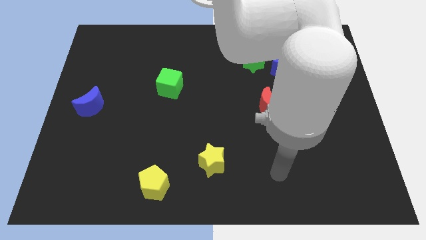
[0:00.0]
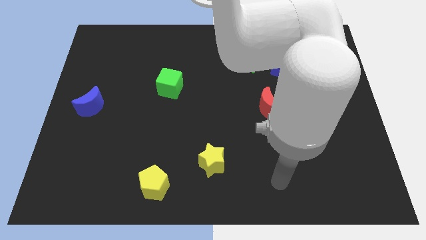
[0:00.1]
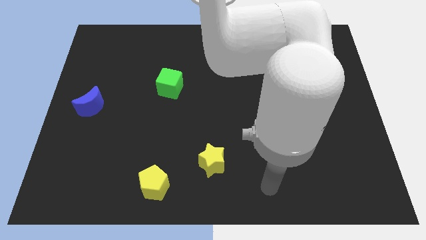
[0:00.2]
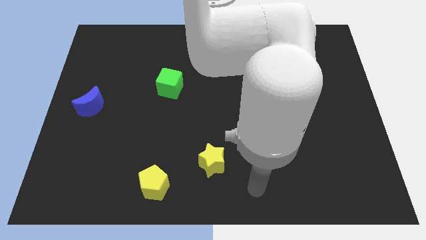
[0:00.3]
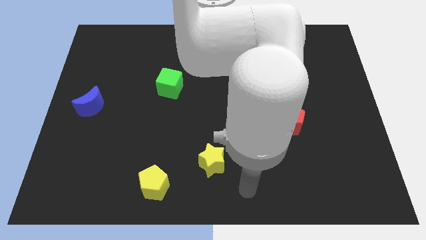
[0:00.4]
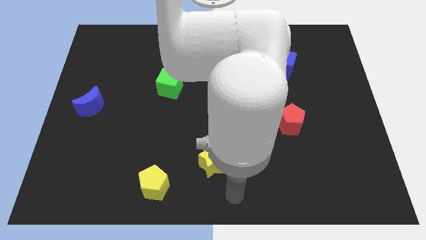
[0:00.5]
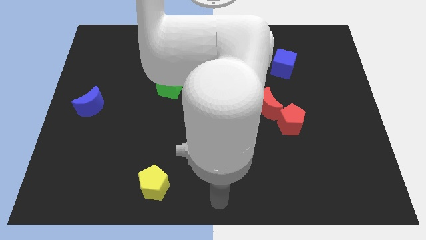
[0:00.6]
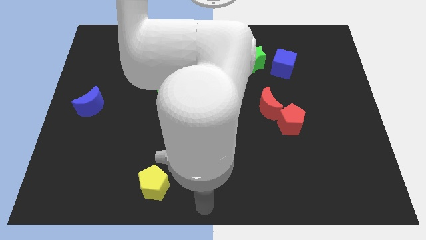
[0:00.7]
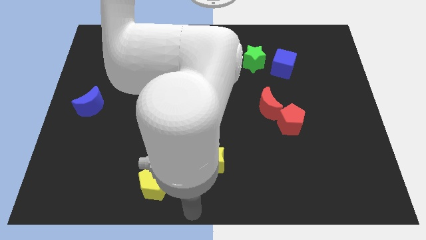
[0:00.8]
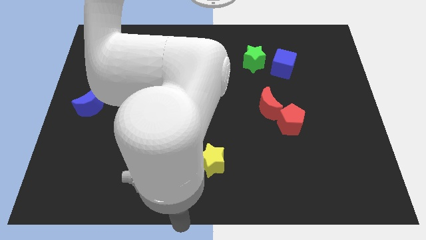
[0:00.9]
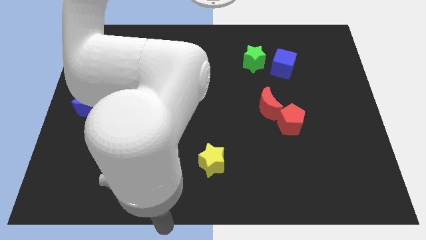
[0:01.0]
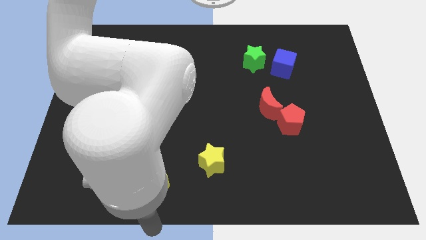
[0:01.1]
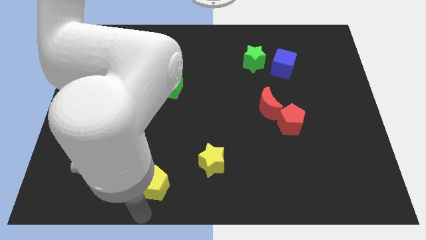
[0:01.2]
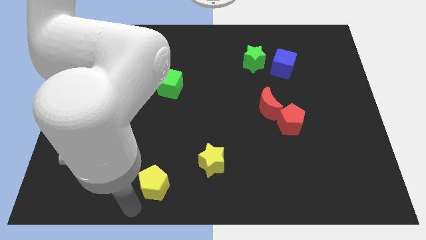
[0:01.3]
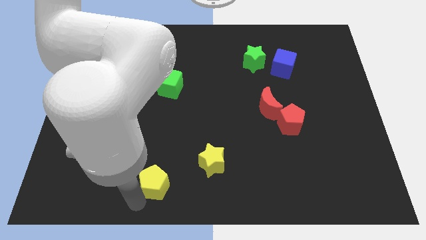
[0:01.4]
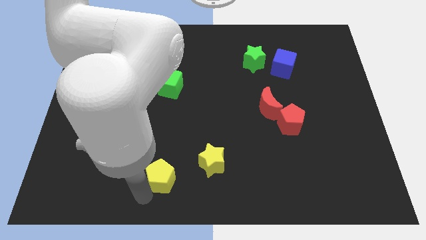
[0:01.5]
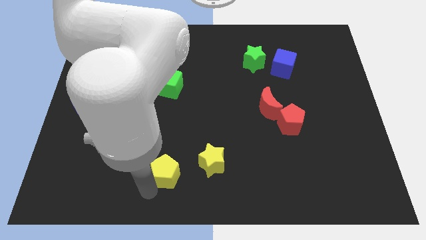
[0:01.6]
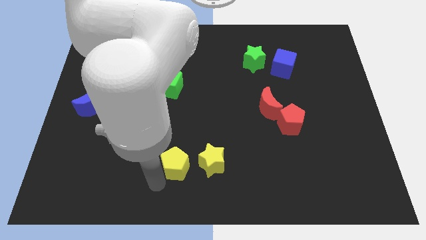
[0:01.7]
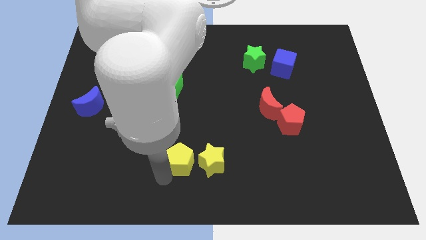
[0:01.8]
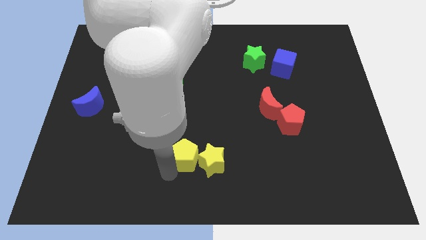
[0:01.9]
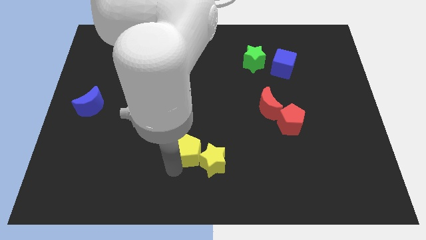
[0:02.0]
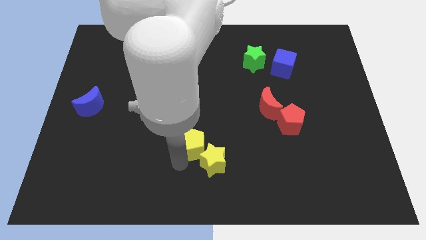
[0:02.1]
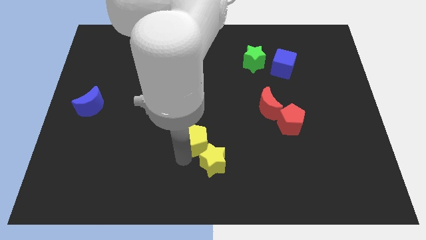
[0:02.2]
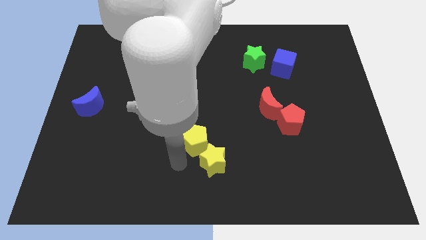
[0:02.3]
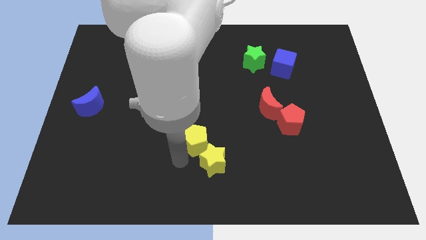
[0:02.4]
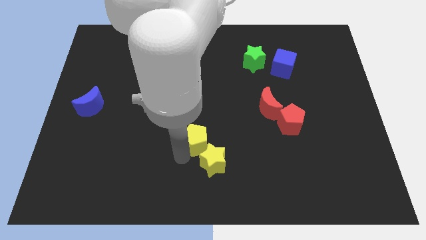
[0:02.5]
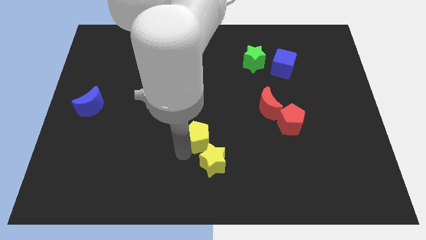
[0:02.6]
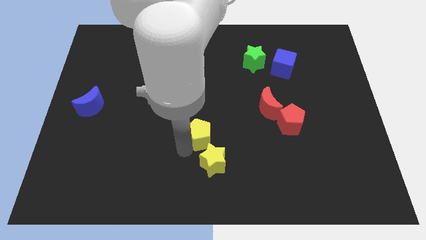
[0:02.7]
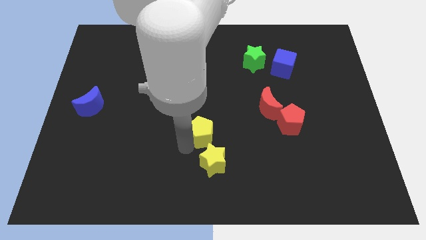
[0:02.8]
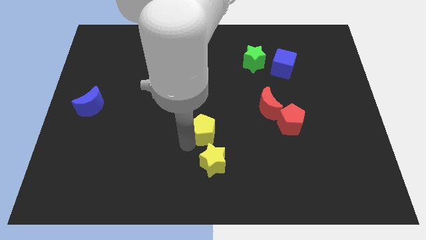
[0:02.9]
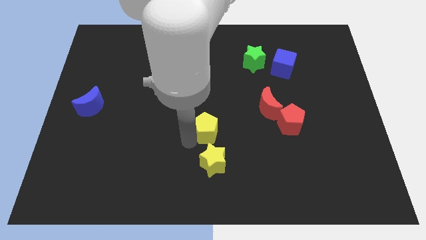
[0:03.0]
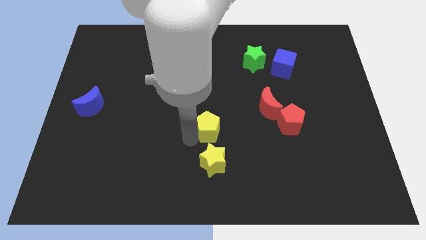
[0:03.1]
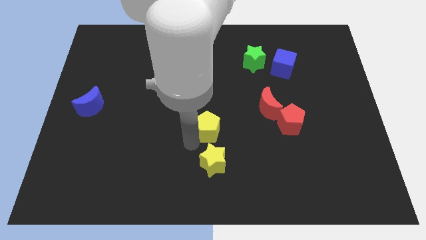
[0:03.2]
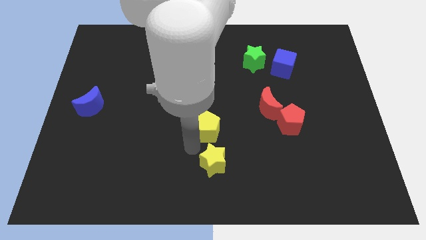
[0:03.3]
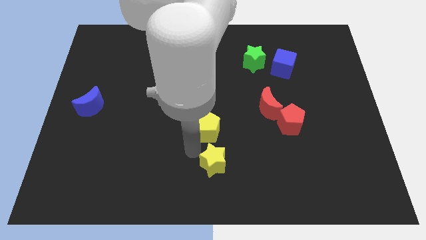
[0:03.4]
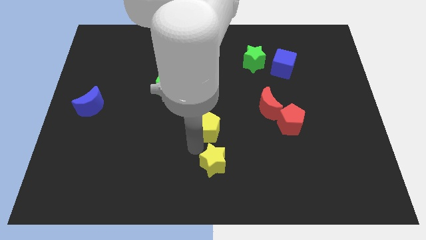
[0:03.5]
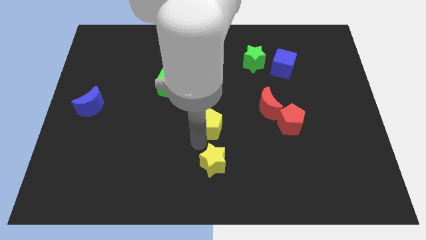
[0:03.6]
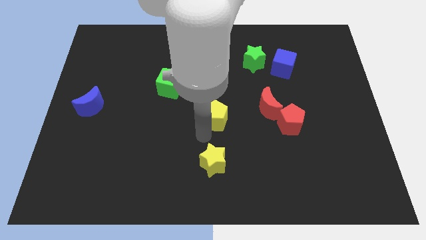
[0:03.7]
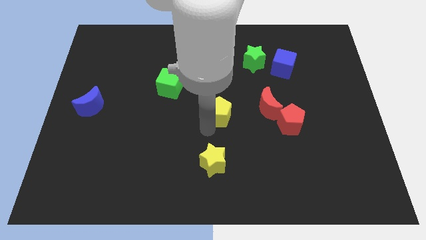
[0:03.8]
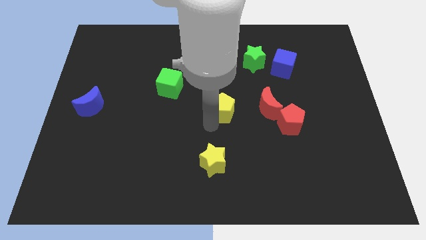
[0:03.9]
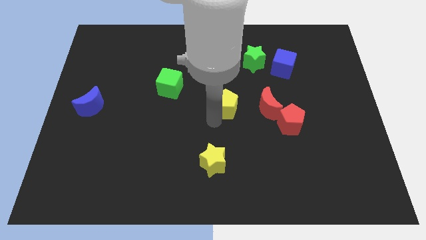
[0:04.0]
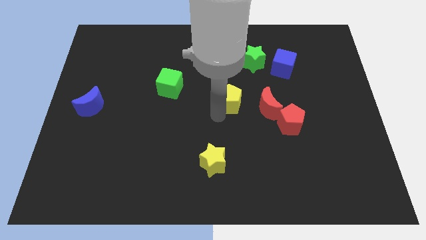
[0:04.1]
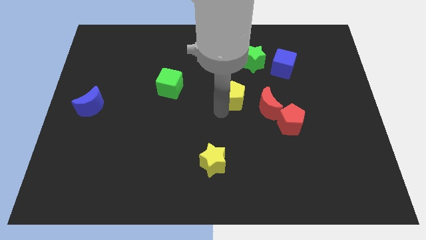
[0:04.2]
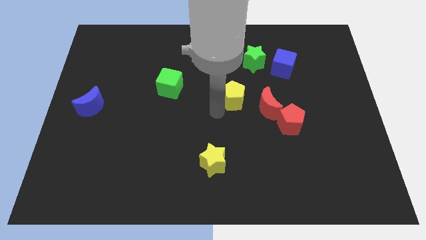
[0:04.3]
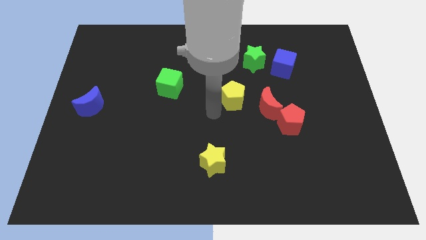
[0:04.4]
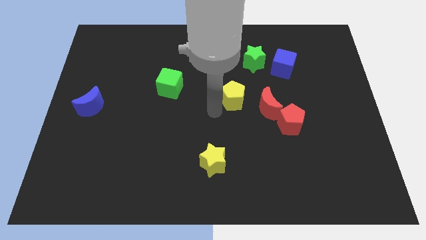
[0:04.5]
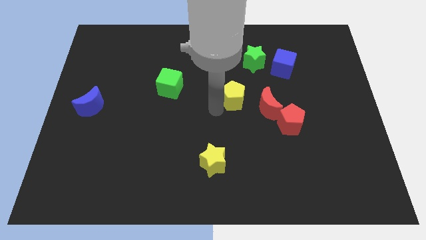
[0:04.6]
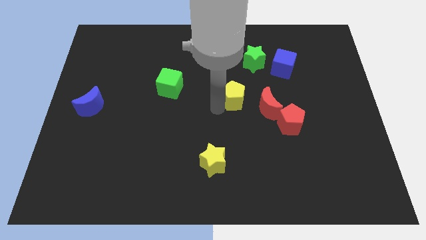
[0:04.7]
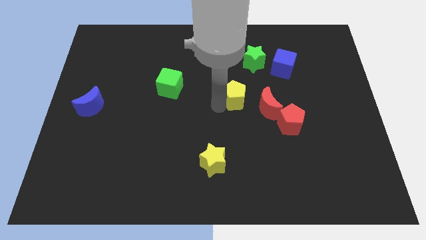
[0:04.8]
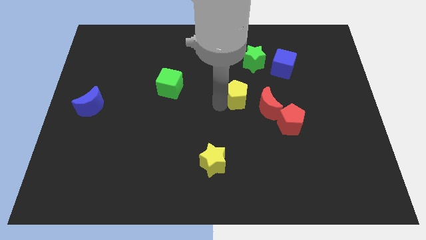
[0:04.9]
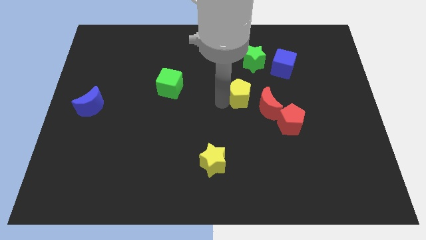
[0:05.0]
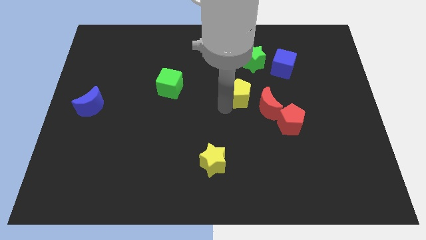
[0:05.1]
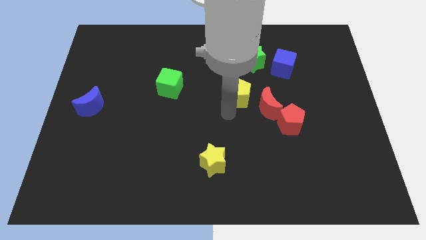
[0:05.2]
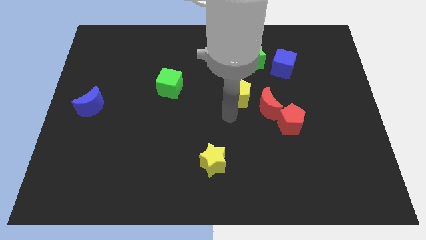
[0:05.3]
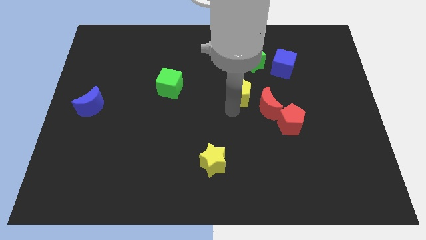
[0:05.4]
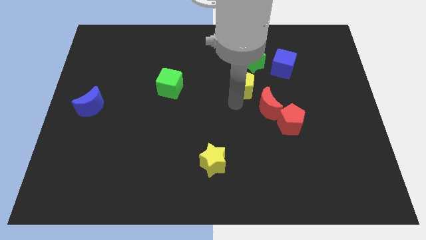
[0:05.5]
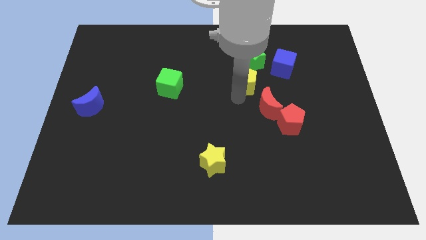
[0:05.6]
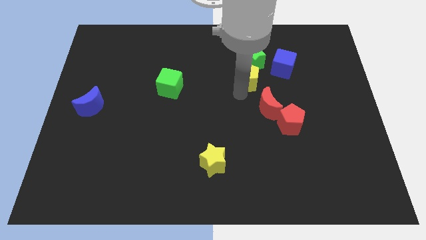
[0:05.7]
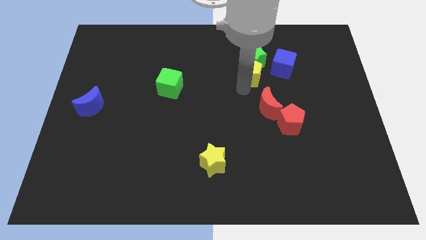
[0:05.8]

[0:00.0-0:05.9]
slide the yellow pentagon next to the green star

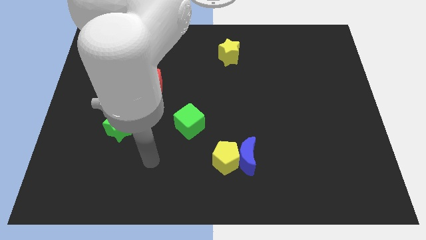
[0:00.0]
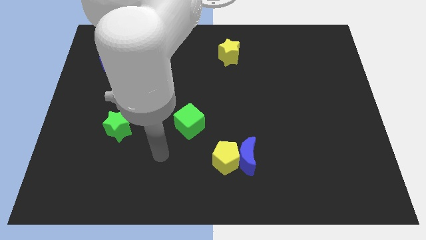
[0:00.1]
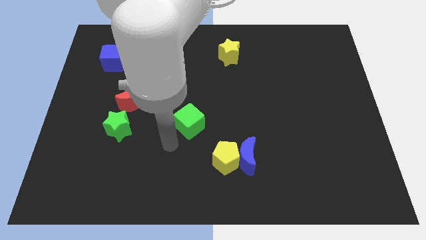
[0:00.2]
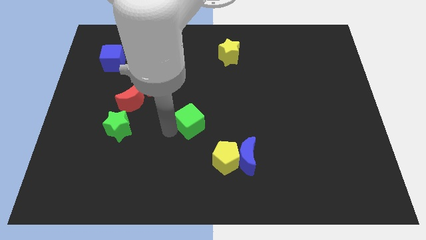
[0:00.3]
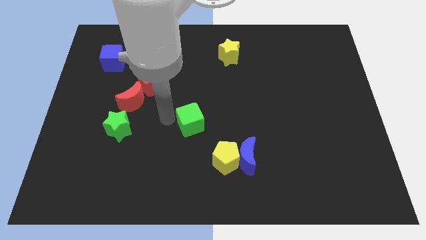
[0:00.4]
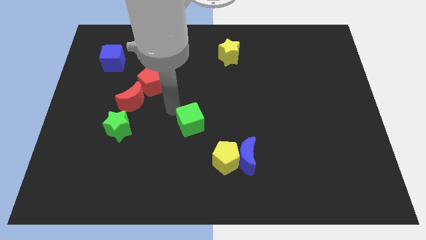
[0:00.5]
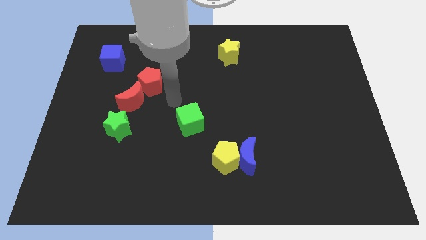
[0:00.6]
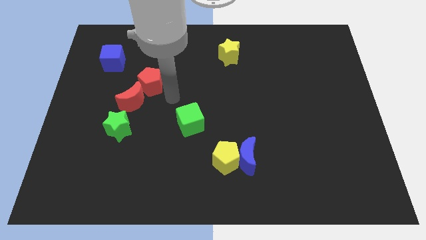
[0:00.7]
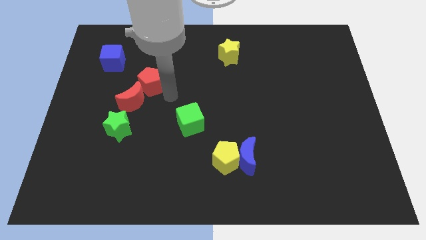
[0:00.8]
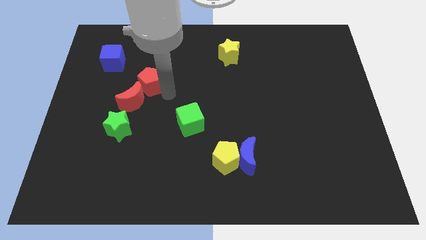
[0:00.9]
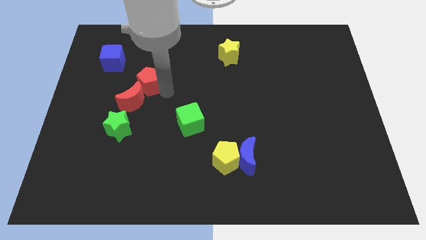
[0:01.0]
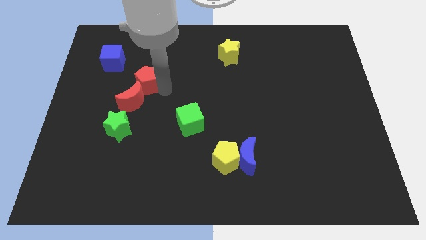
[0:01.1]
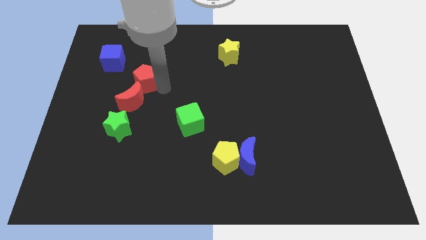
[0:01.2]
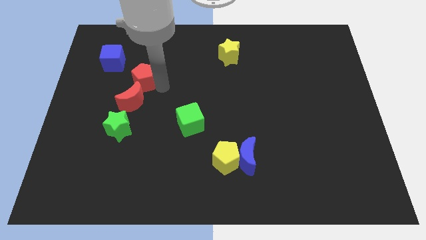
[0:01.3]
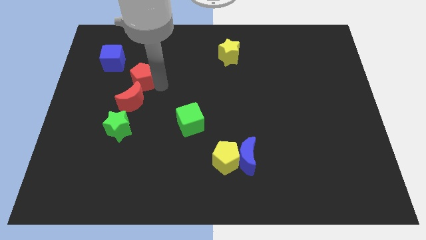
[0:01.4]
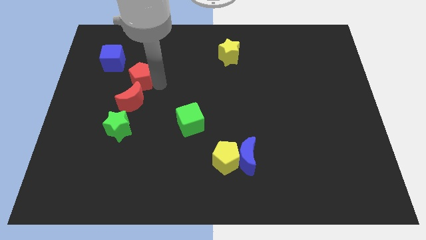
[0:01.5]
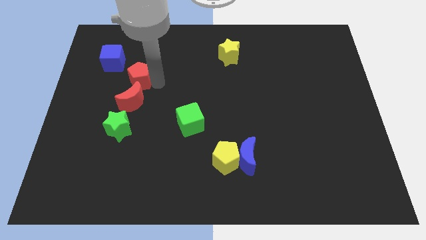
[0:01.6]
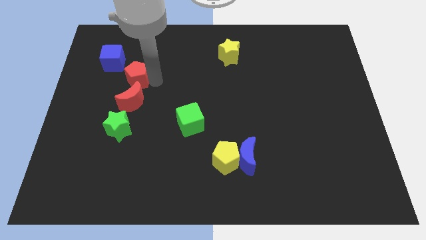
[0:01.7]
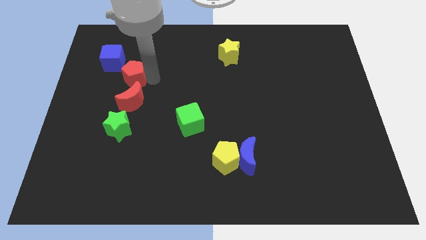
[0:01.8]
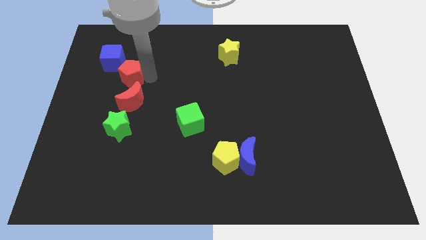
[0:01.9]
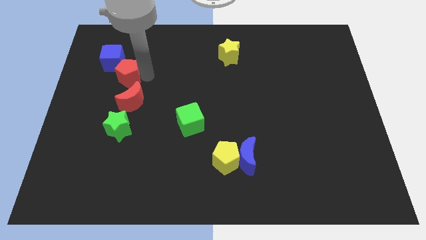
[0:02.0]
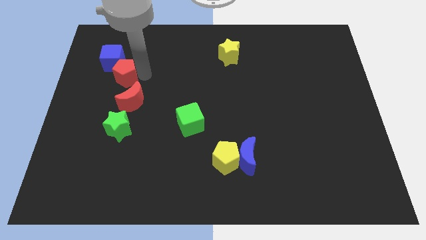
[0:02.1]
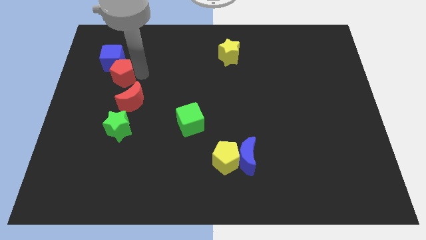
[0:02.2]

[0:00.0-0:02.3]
move the red pentagon to the blue cube
